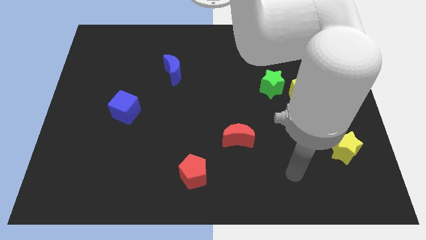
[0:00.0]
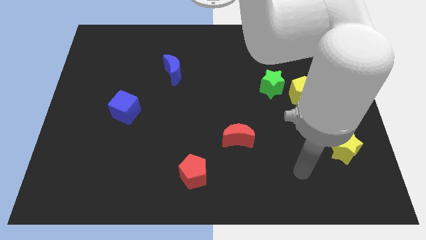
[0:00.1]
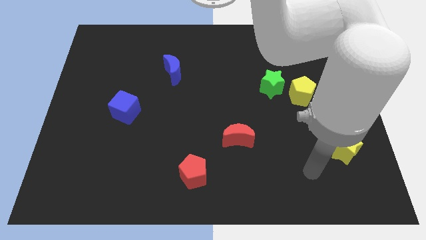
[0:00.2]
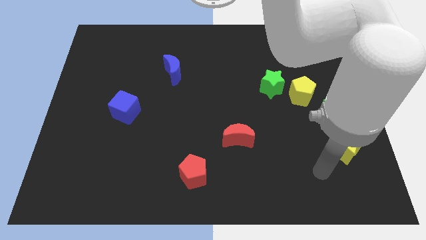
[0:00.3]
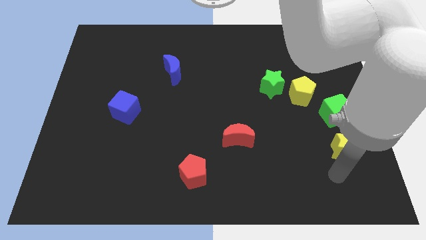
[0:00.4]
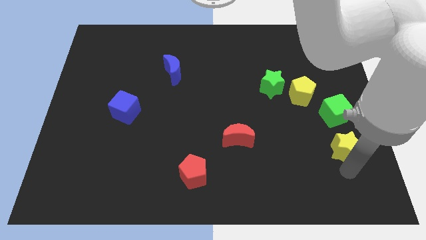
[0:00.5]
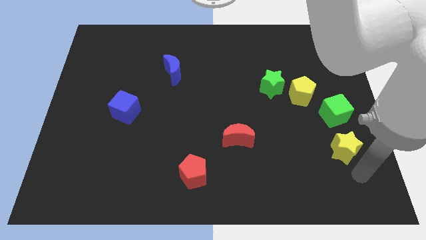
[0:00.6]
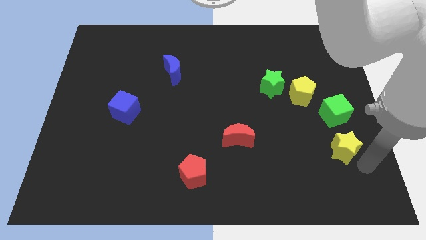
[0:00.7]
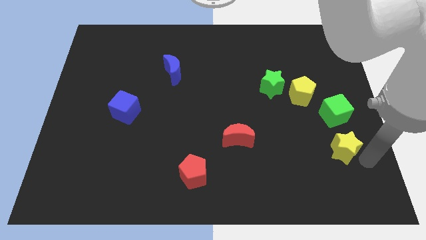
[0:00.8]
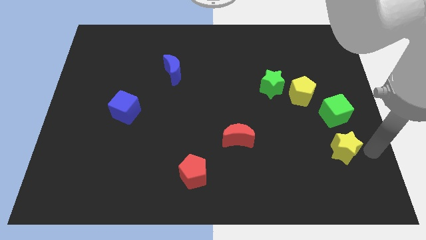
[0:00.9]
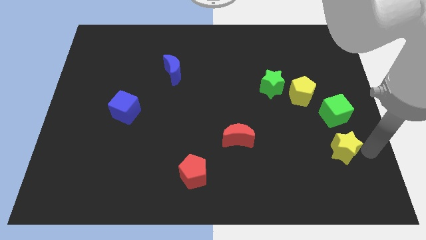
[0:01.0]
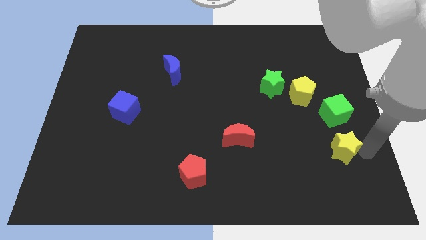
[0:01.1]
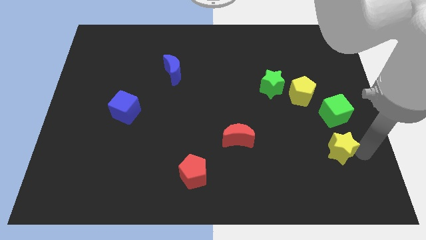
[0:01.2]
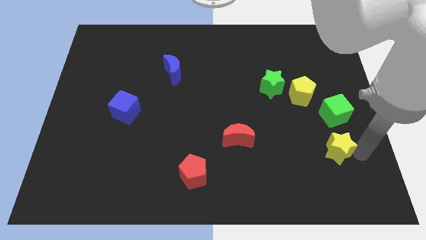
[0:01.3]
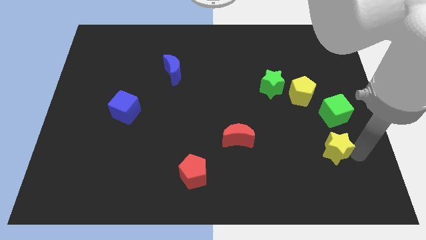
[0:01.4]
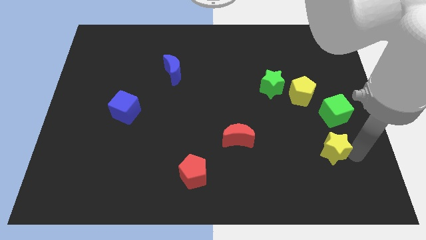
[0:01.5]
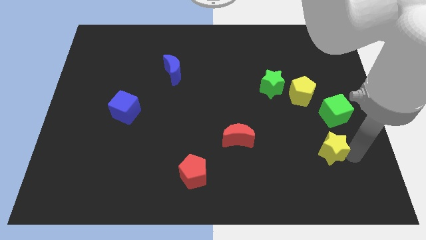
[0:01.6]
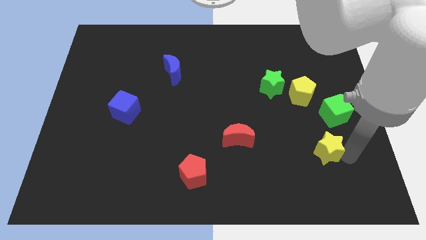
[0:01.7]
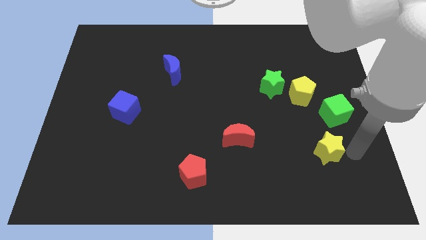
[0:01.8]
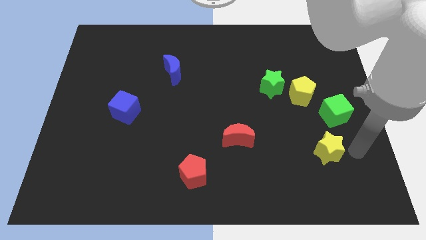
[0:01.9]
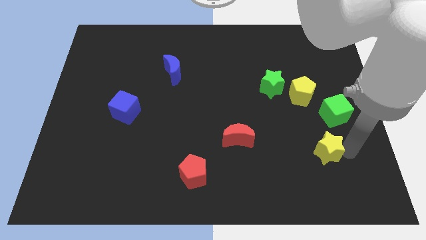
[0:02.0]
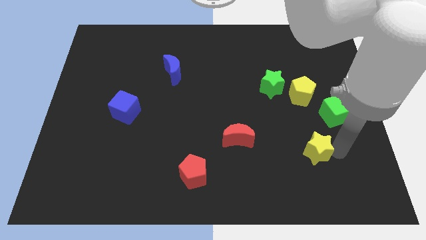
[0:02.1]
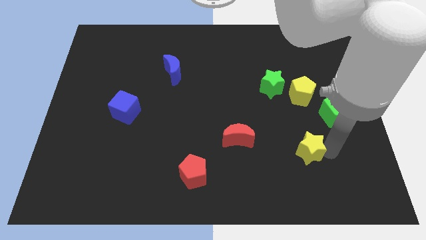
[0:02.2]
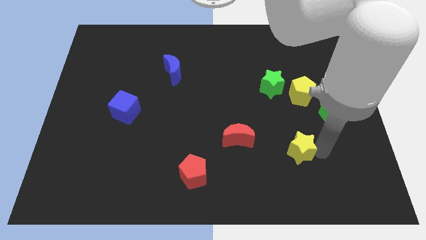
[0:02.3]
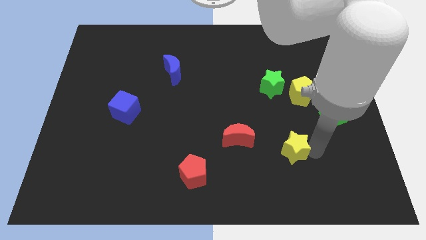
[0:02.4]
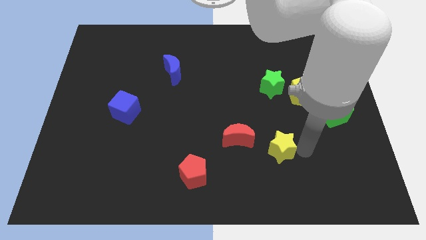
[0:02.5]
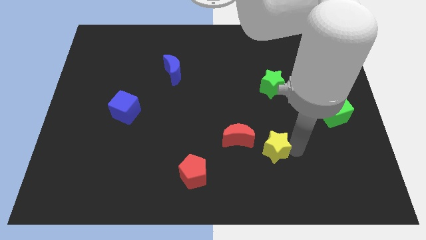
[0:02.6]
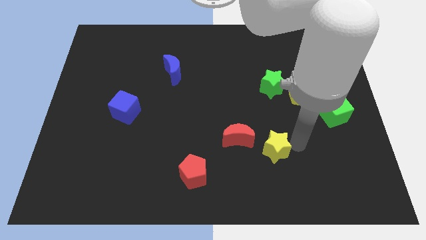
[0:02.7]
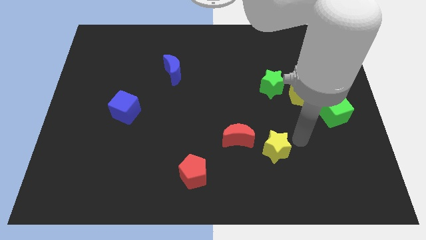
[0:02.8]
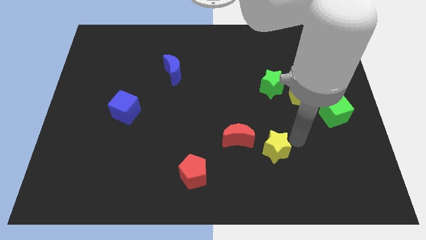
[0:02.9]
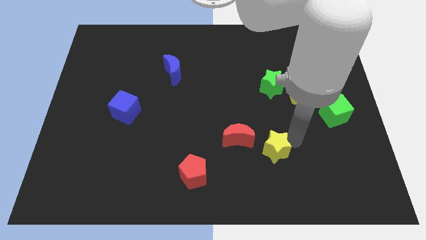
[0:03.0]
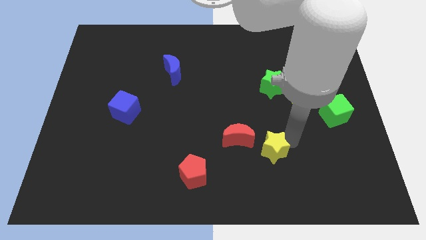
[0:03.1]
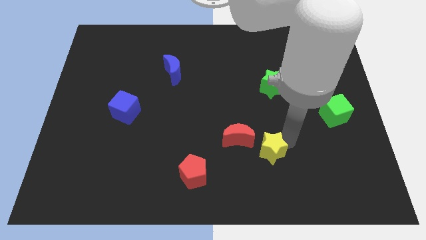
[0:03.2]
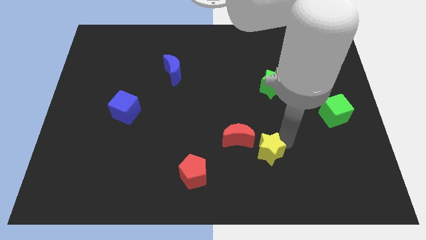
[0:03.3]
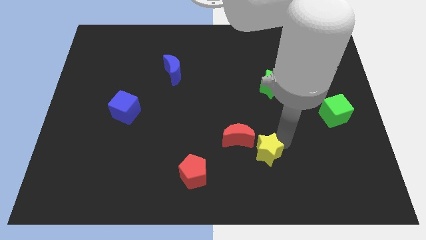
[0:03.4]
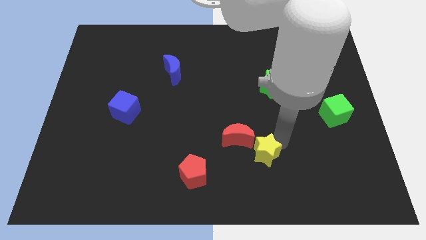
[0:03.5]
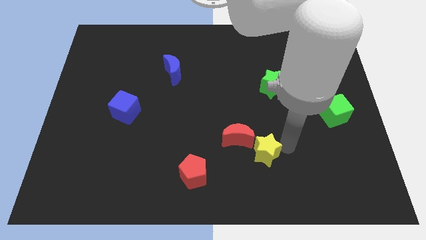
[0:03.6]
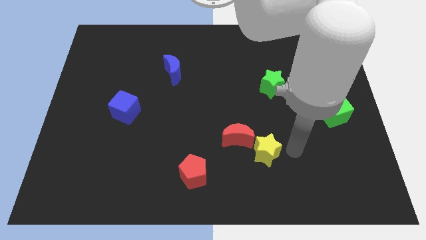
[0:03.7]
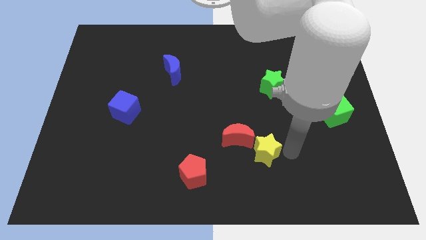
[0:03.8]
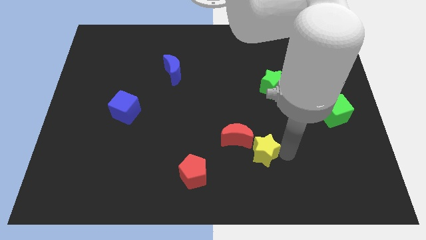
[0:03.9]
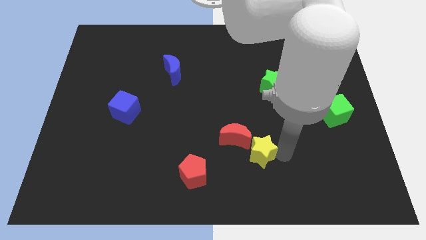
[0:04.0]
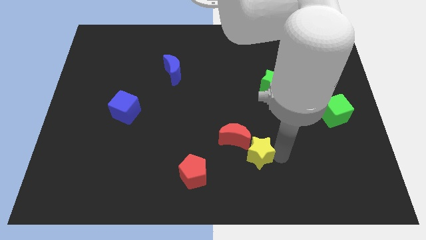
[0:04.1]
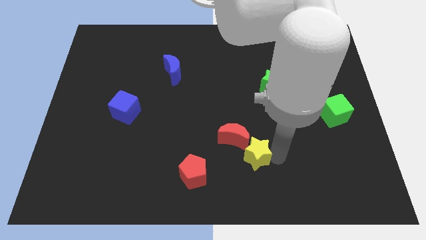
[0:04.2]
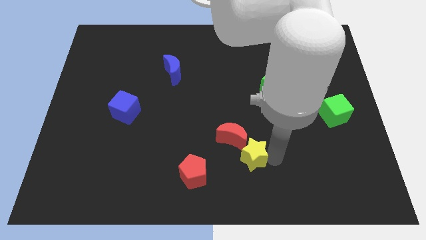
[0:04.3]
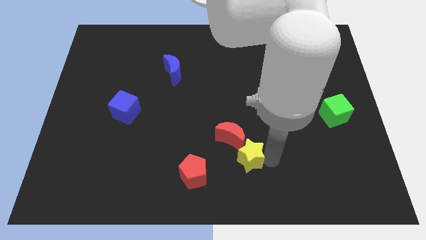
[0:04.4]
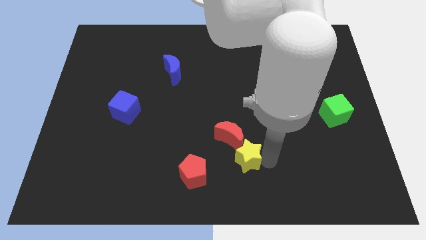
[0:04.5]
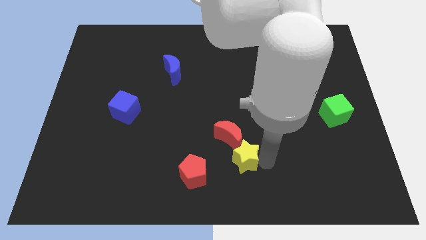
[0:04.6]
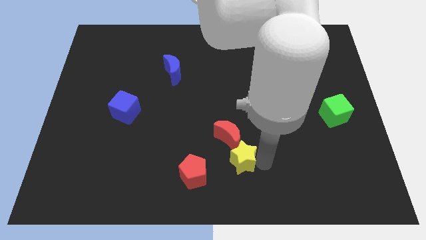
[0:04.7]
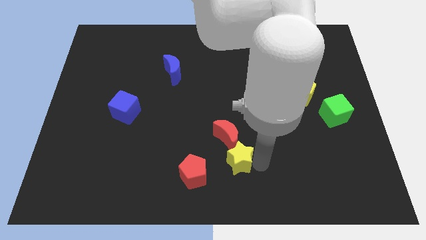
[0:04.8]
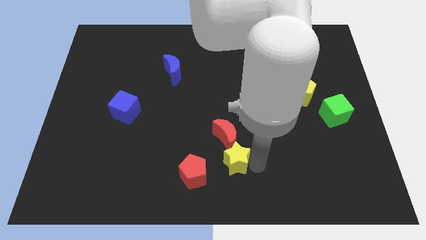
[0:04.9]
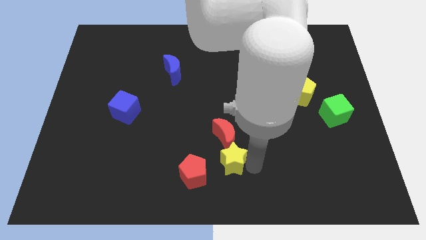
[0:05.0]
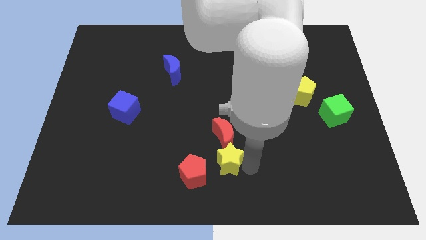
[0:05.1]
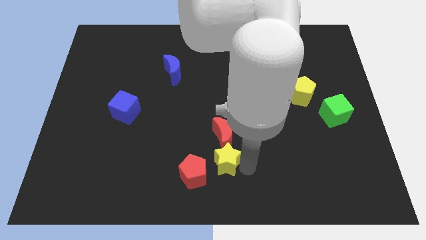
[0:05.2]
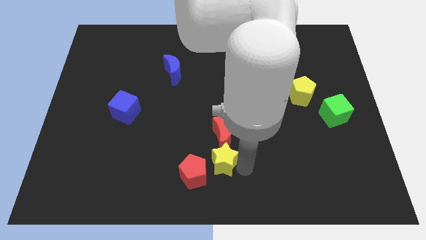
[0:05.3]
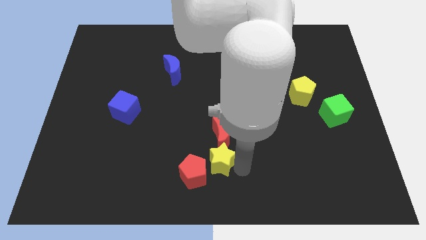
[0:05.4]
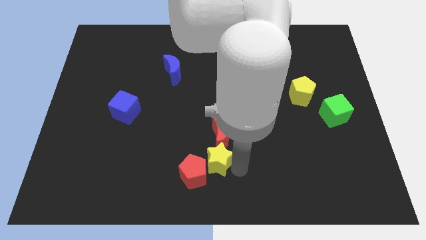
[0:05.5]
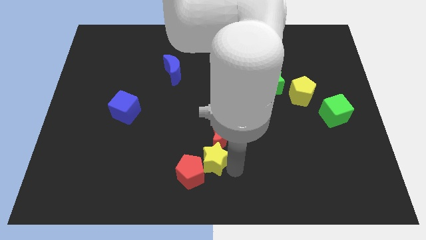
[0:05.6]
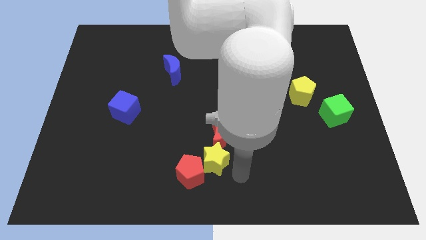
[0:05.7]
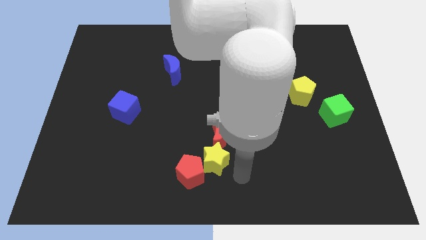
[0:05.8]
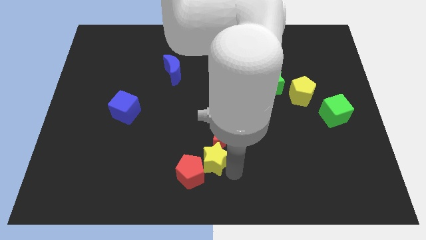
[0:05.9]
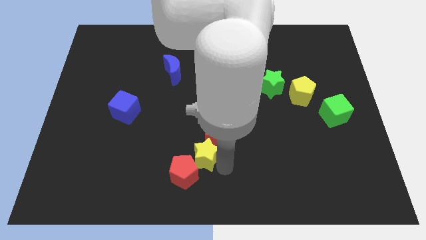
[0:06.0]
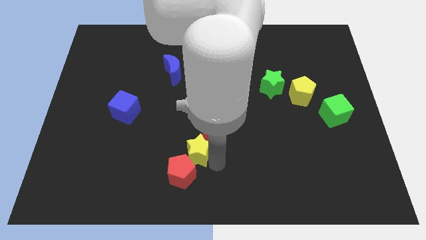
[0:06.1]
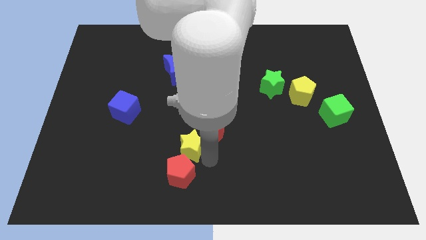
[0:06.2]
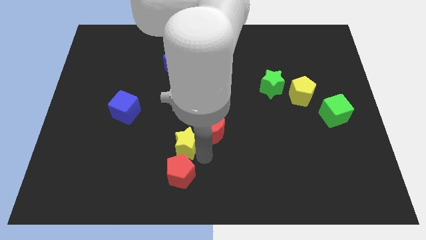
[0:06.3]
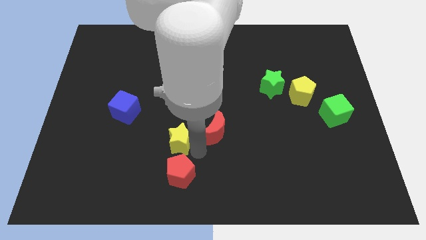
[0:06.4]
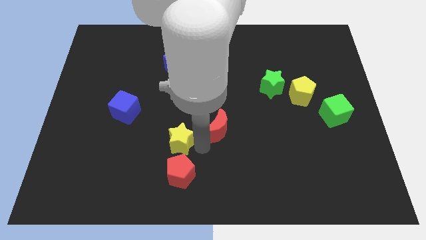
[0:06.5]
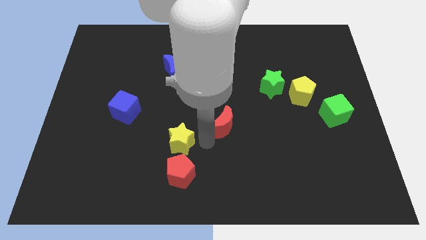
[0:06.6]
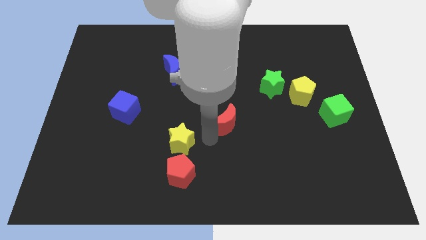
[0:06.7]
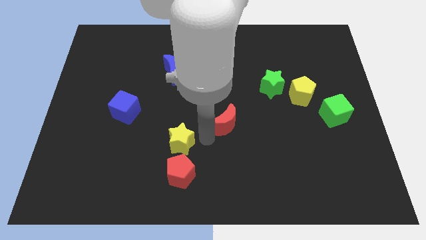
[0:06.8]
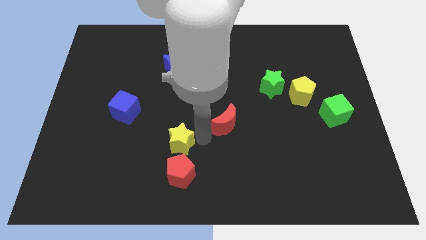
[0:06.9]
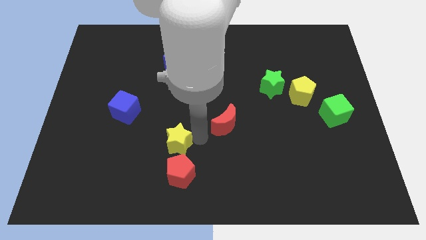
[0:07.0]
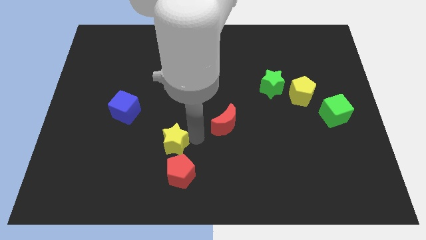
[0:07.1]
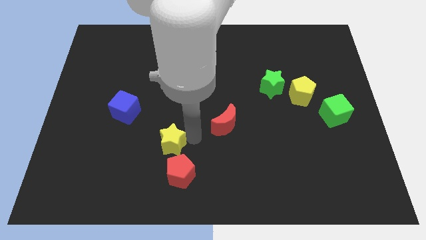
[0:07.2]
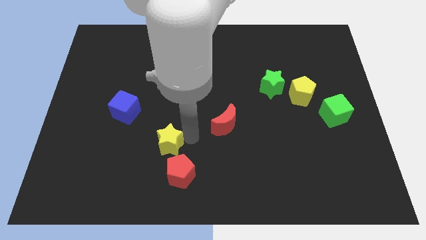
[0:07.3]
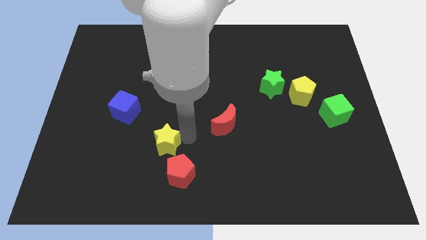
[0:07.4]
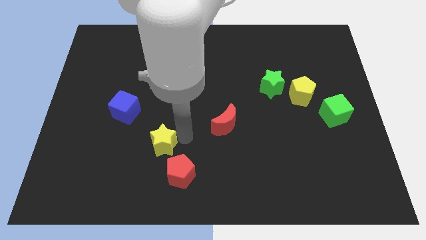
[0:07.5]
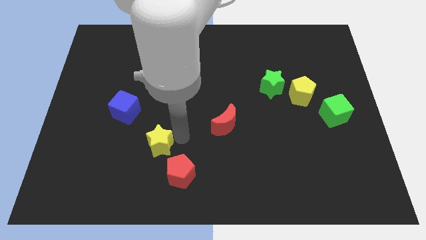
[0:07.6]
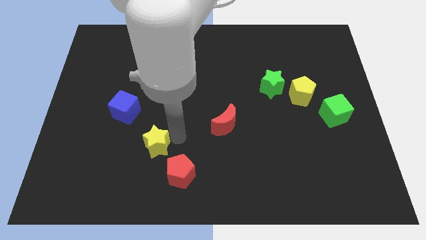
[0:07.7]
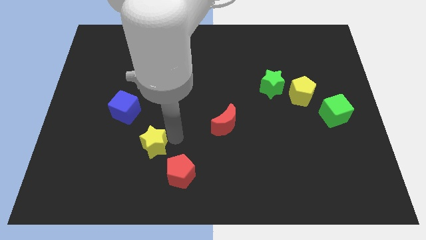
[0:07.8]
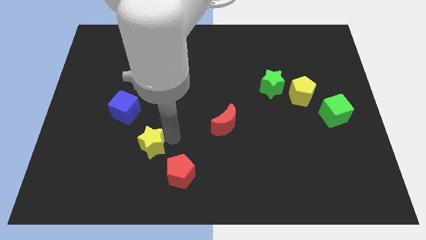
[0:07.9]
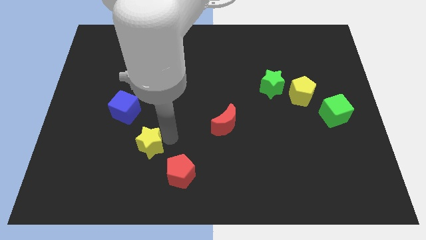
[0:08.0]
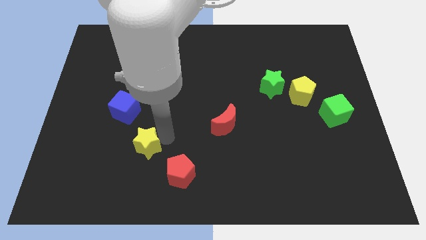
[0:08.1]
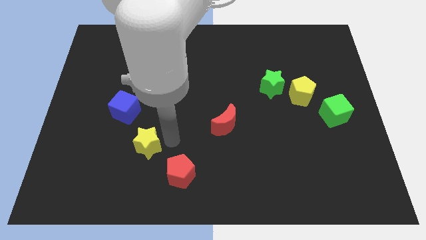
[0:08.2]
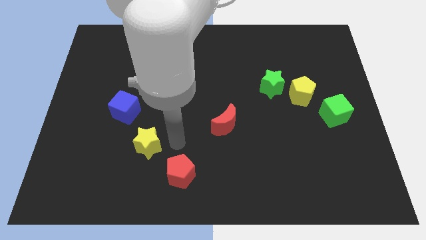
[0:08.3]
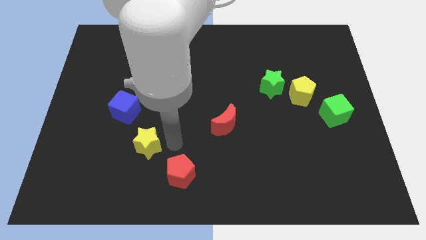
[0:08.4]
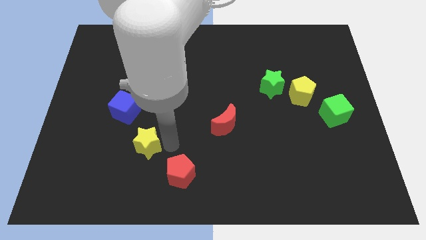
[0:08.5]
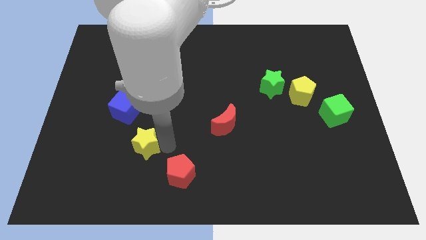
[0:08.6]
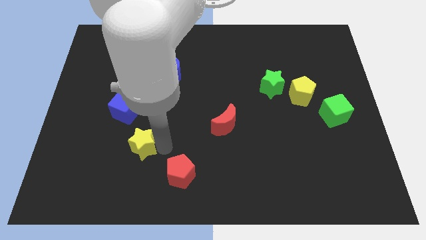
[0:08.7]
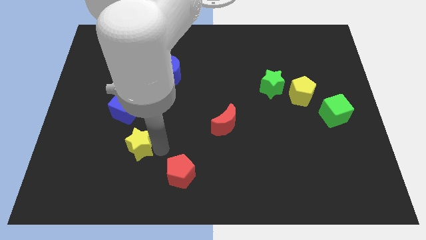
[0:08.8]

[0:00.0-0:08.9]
slide the yellow star to the bottom side of the blue cube
